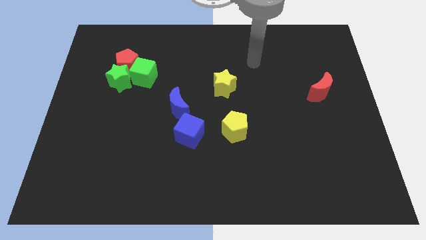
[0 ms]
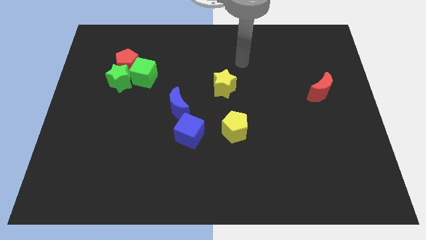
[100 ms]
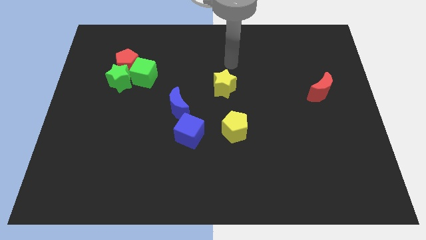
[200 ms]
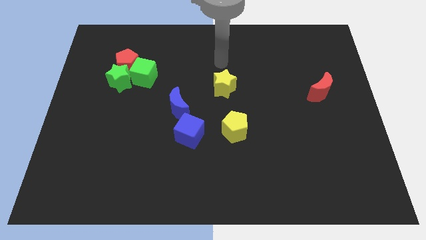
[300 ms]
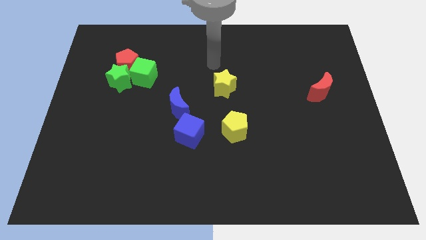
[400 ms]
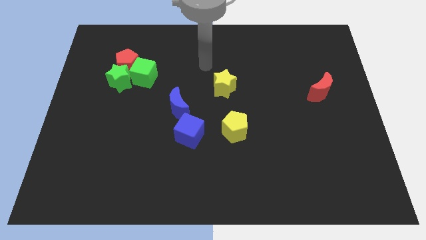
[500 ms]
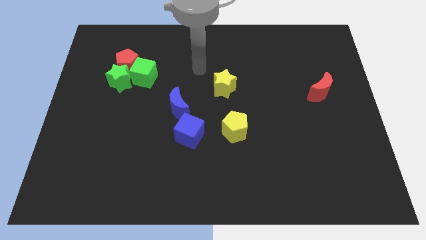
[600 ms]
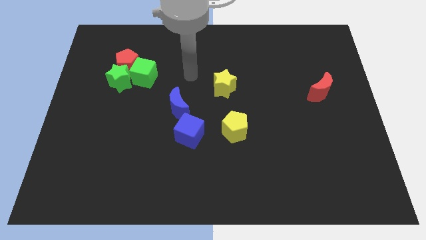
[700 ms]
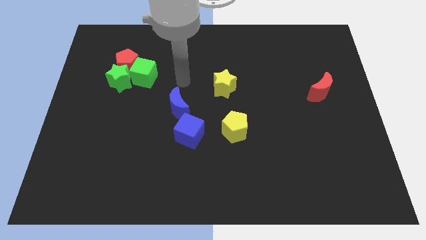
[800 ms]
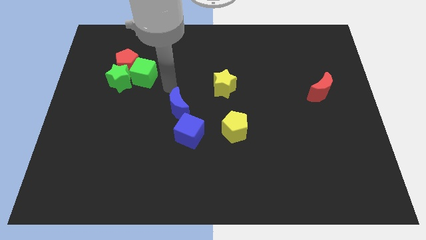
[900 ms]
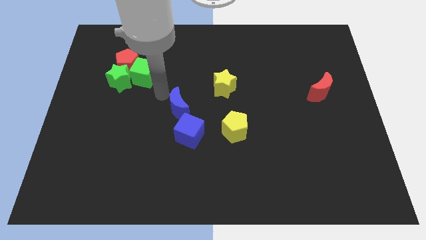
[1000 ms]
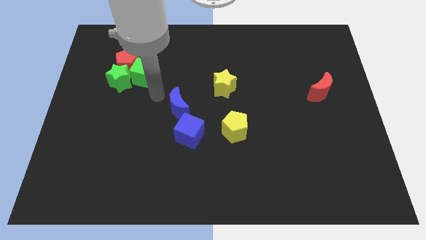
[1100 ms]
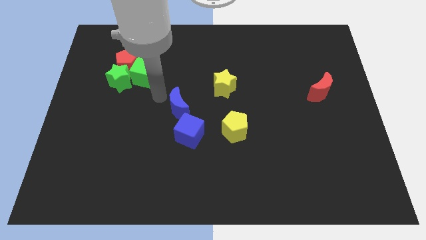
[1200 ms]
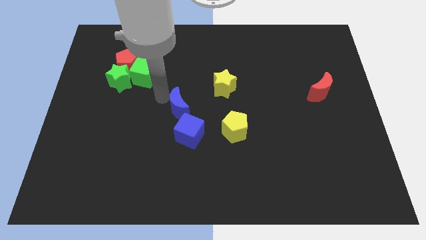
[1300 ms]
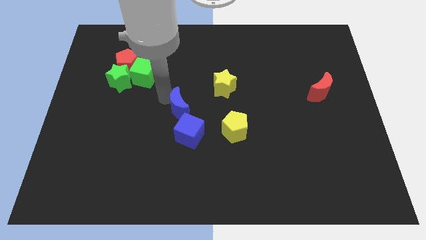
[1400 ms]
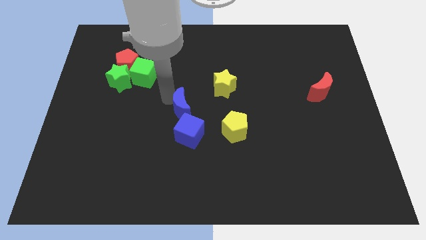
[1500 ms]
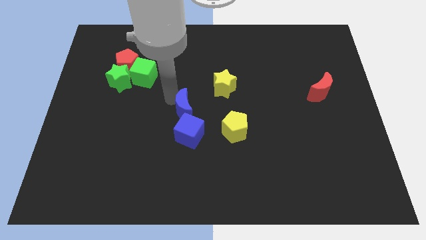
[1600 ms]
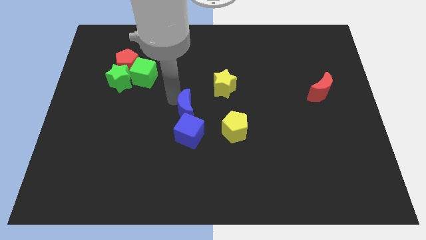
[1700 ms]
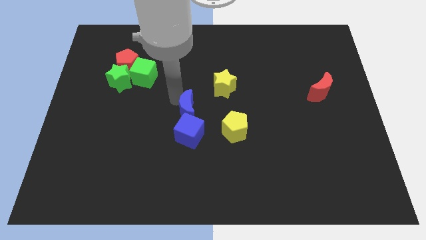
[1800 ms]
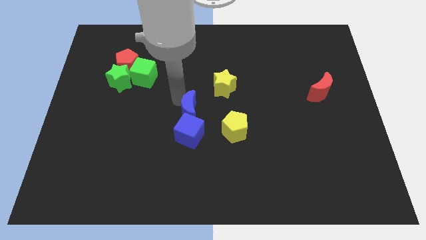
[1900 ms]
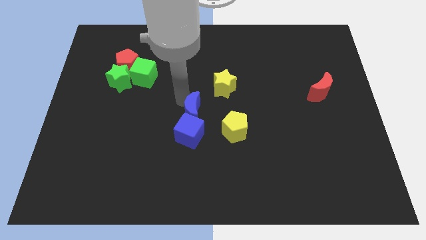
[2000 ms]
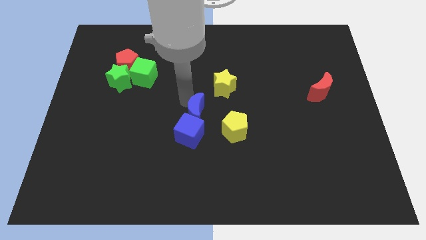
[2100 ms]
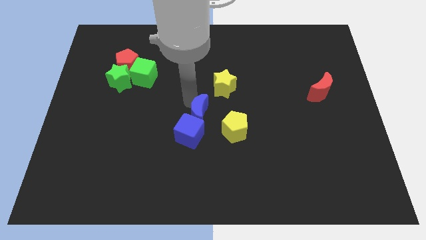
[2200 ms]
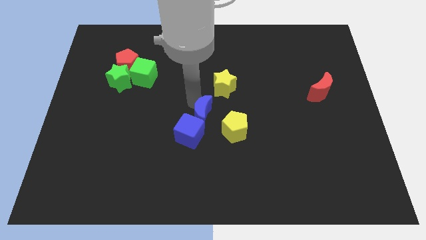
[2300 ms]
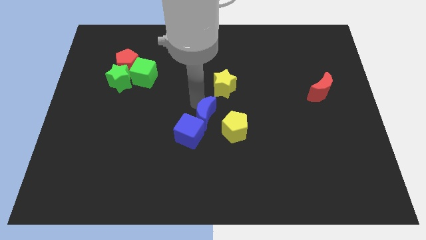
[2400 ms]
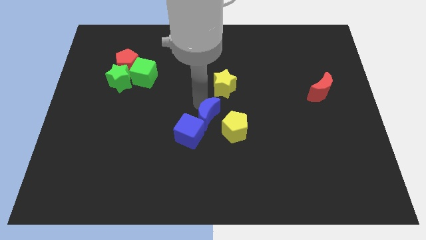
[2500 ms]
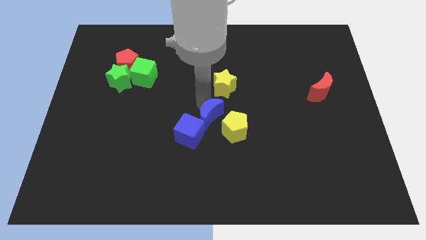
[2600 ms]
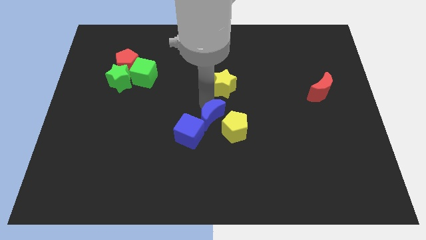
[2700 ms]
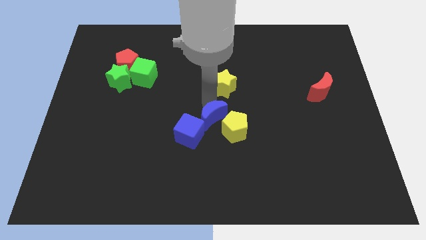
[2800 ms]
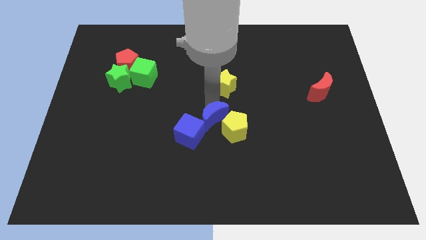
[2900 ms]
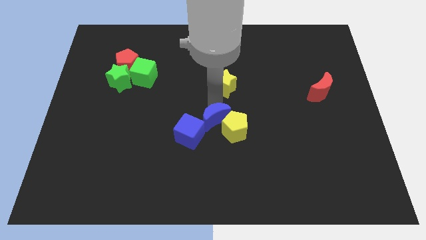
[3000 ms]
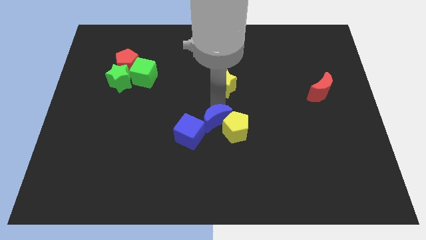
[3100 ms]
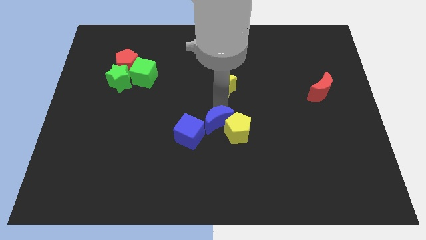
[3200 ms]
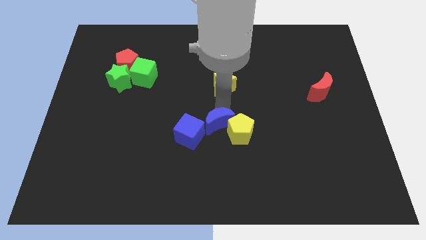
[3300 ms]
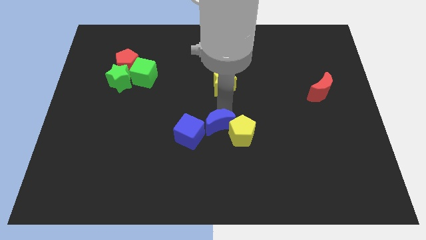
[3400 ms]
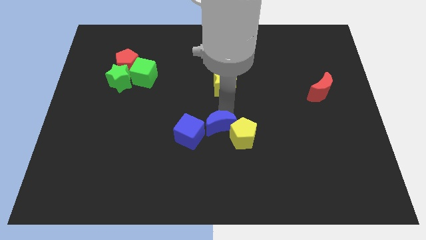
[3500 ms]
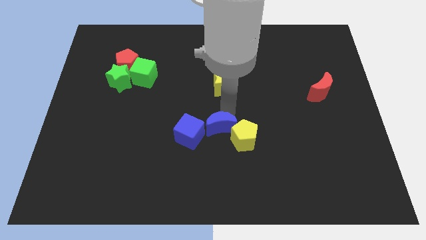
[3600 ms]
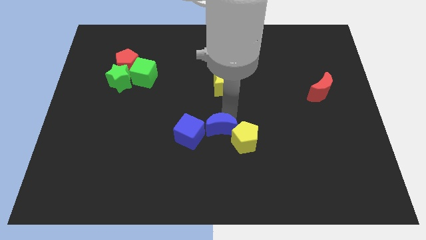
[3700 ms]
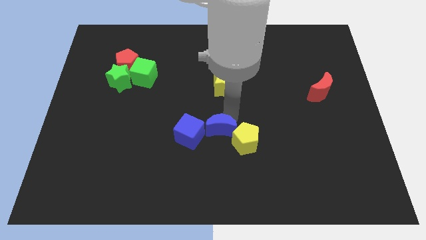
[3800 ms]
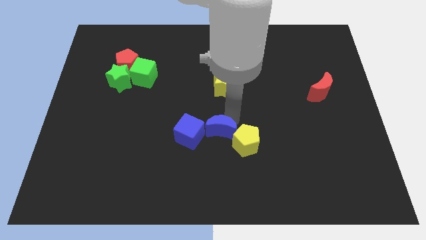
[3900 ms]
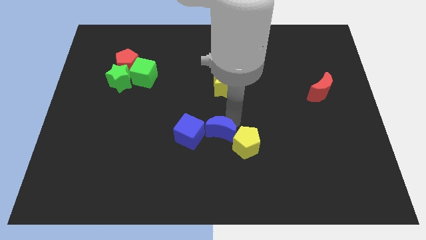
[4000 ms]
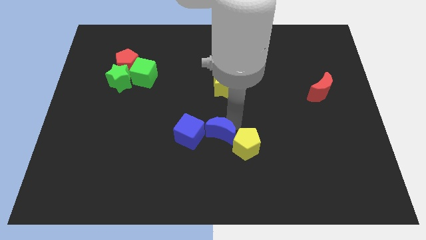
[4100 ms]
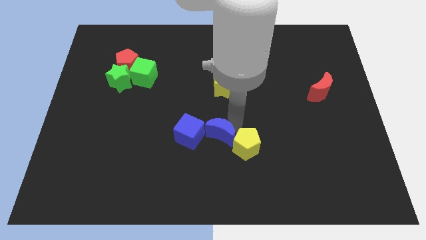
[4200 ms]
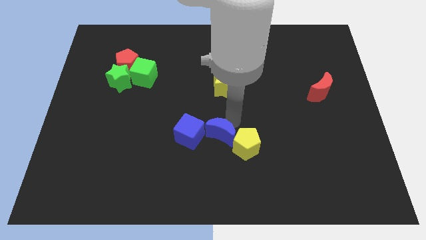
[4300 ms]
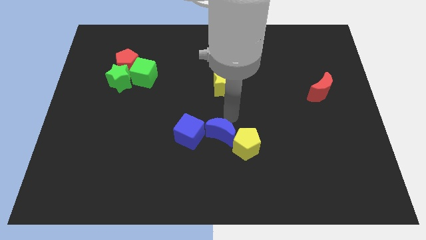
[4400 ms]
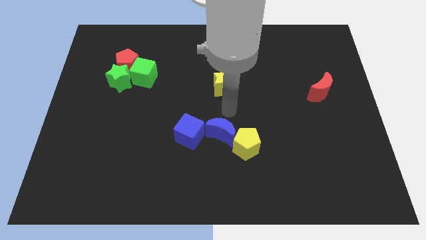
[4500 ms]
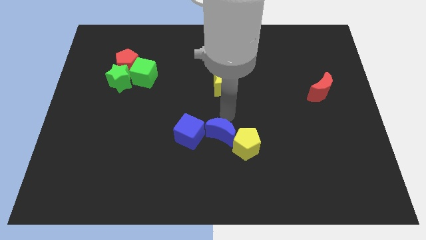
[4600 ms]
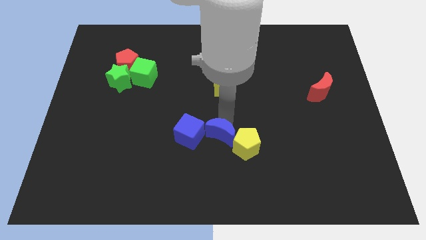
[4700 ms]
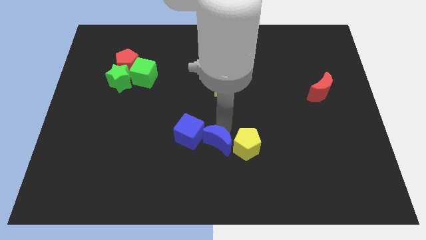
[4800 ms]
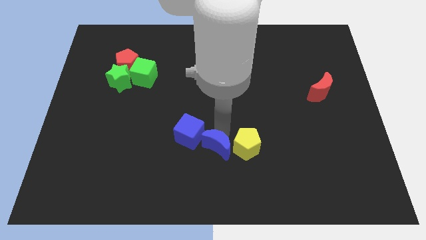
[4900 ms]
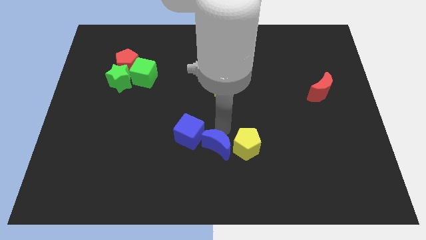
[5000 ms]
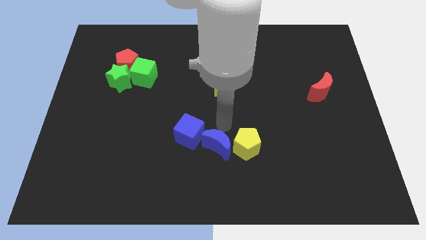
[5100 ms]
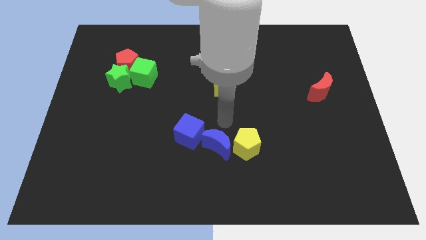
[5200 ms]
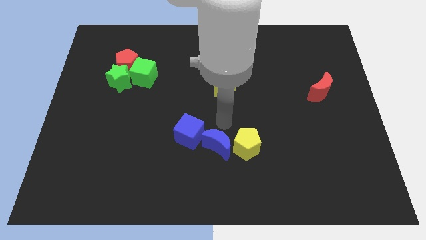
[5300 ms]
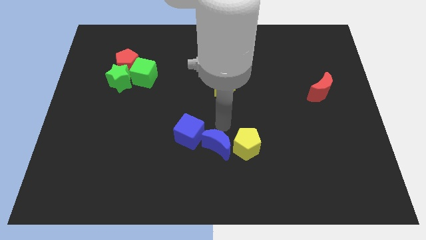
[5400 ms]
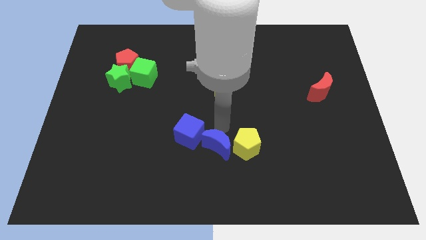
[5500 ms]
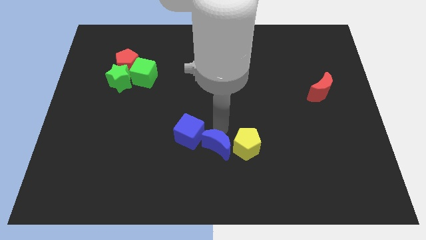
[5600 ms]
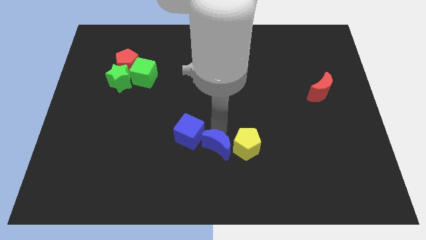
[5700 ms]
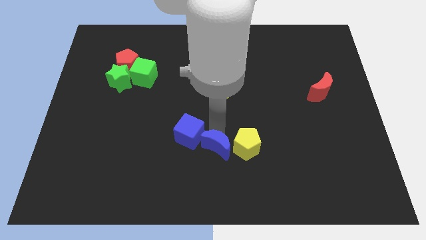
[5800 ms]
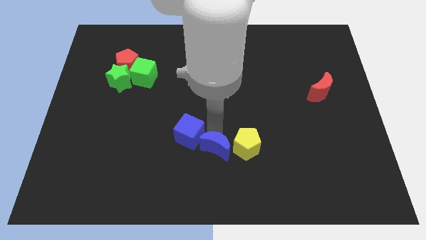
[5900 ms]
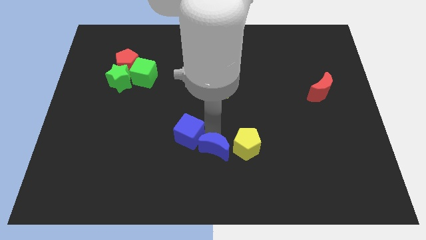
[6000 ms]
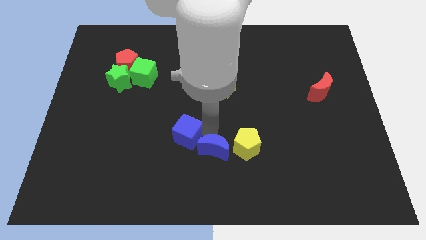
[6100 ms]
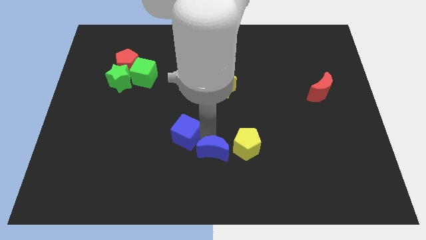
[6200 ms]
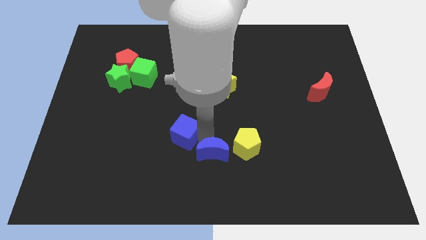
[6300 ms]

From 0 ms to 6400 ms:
slide the blue moon to the bottom
